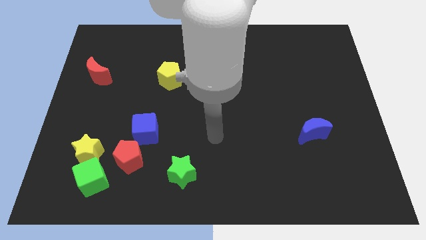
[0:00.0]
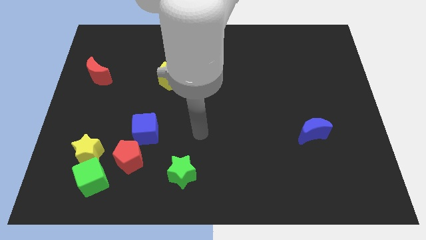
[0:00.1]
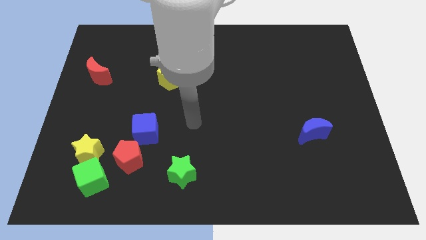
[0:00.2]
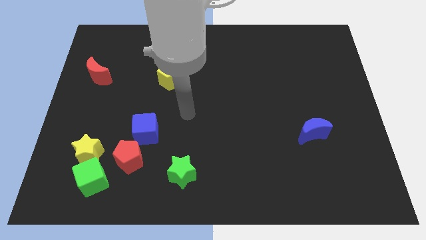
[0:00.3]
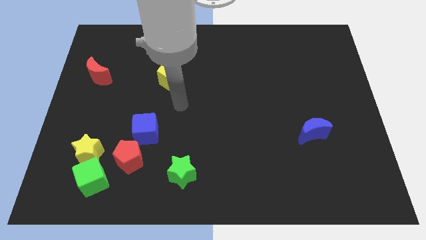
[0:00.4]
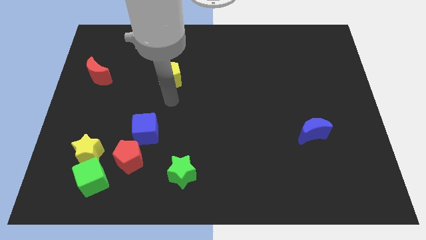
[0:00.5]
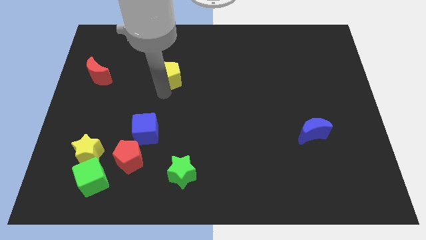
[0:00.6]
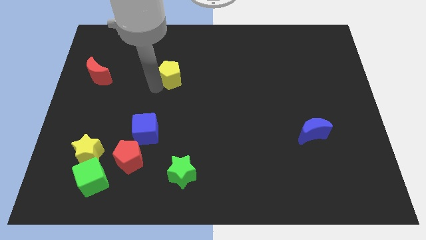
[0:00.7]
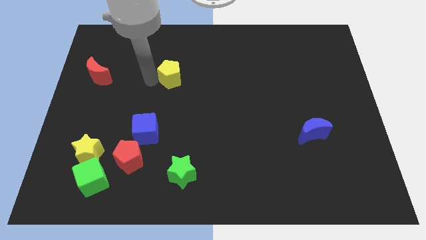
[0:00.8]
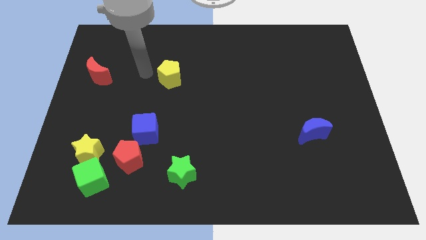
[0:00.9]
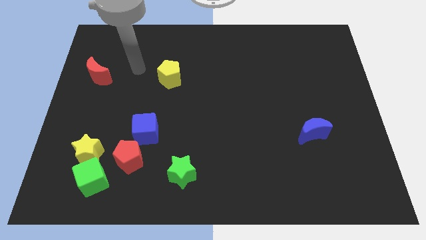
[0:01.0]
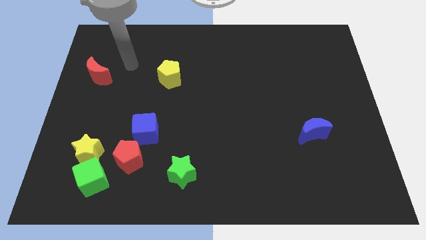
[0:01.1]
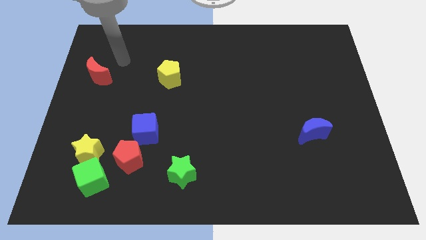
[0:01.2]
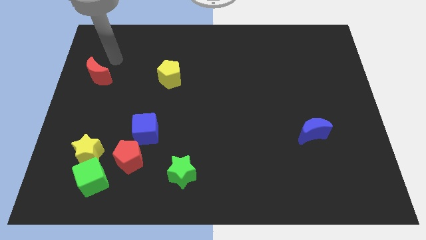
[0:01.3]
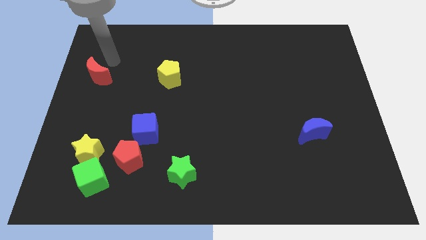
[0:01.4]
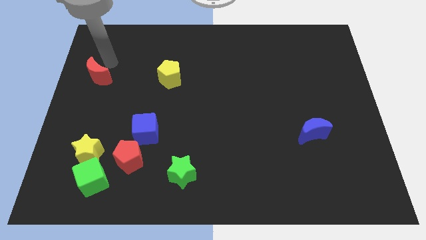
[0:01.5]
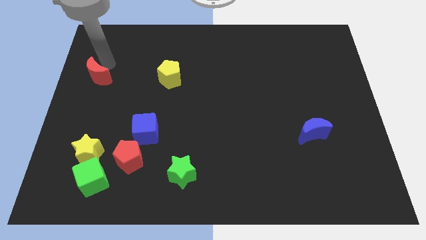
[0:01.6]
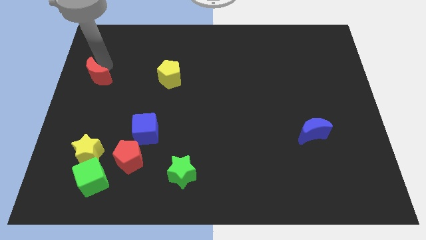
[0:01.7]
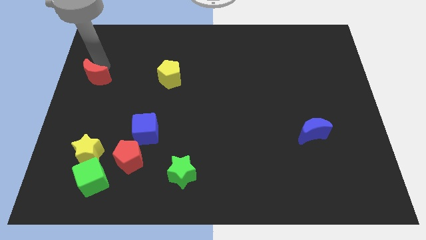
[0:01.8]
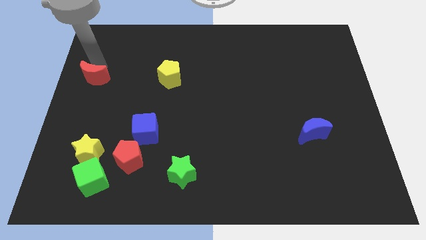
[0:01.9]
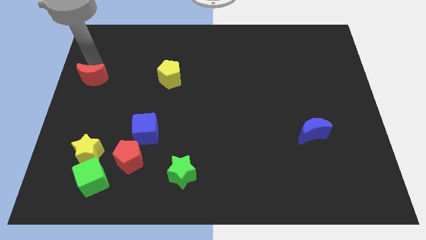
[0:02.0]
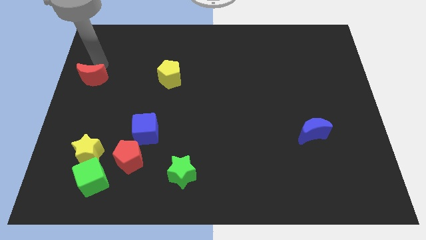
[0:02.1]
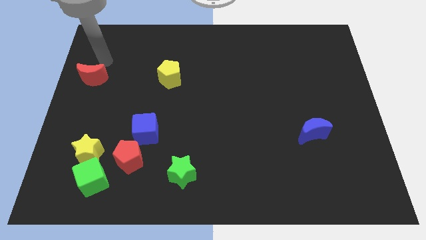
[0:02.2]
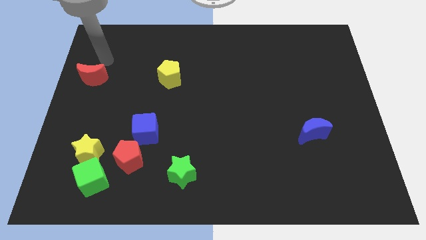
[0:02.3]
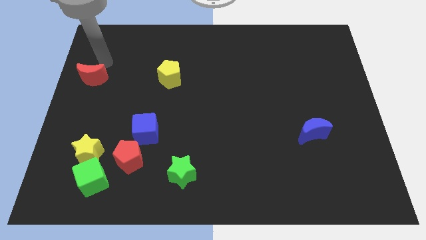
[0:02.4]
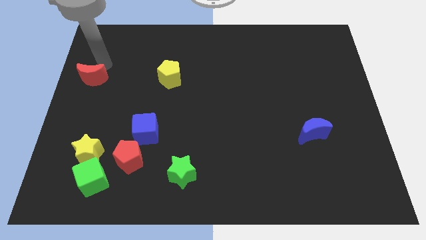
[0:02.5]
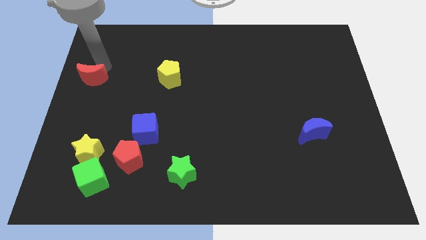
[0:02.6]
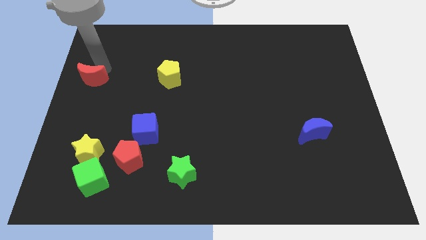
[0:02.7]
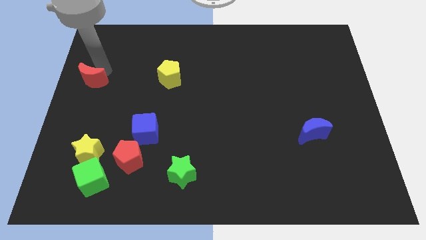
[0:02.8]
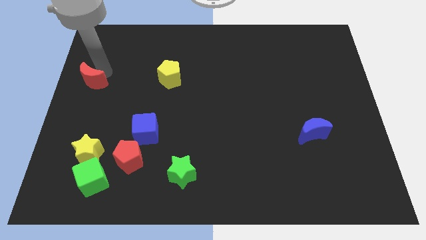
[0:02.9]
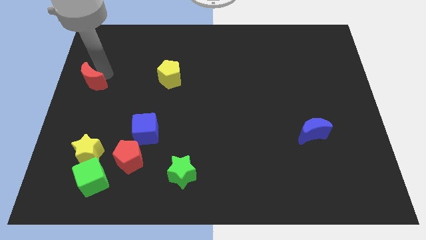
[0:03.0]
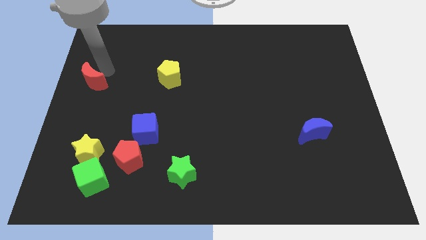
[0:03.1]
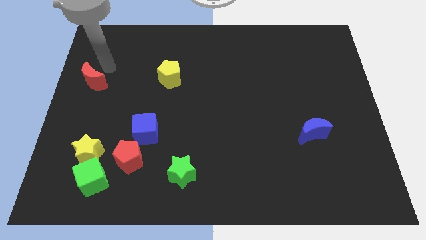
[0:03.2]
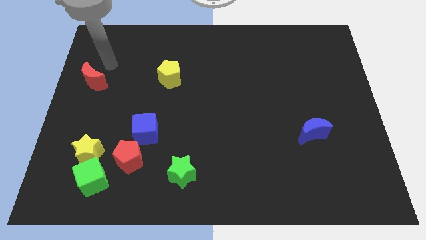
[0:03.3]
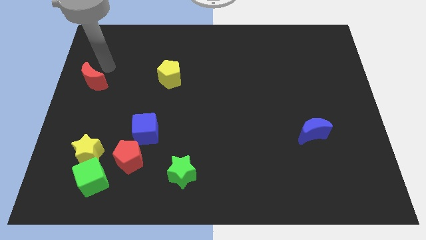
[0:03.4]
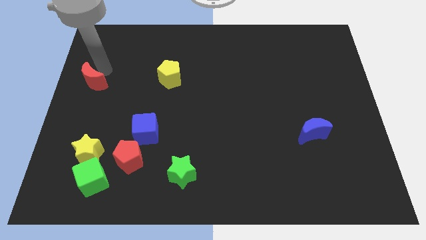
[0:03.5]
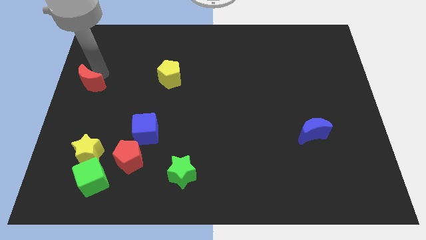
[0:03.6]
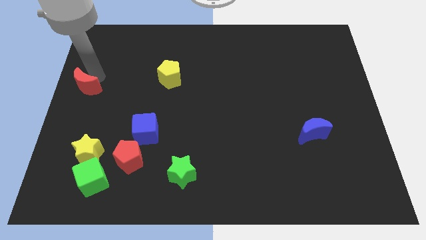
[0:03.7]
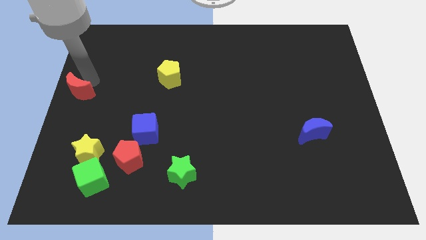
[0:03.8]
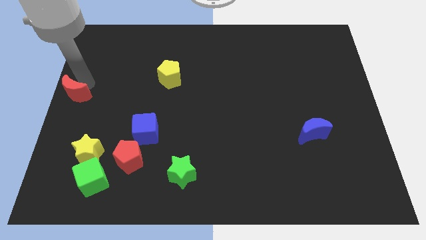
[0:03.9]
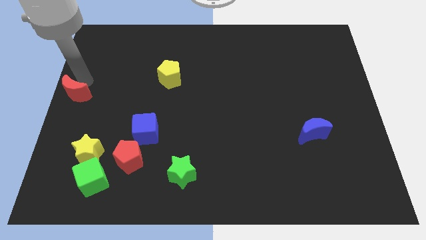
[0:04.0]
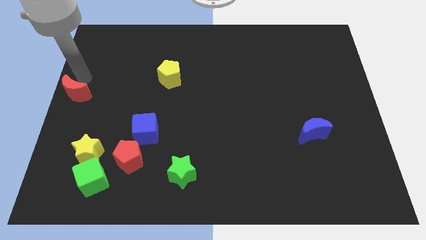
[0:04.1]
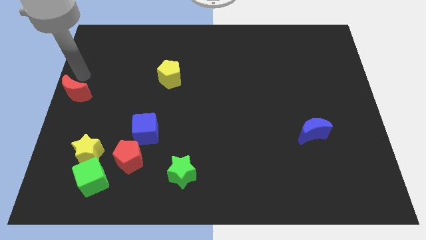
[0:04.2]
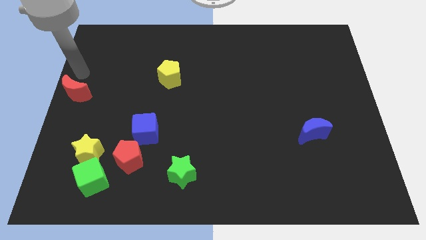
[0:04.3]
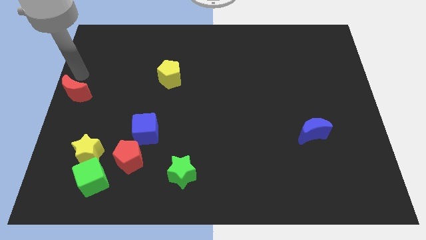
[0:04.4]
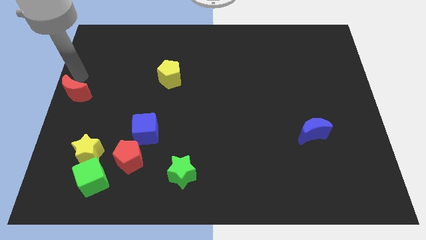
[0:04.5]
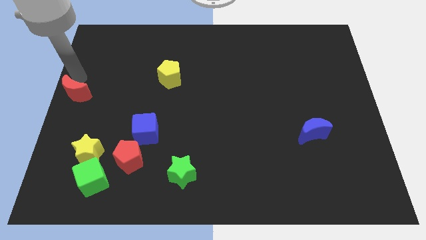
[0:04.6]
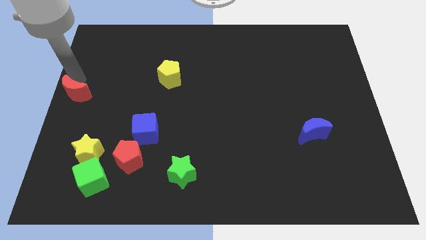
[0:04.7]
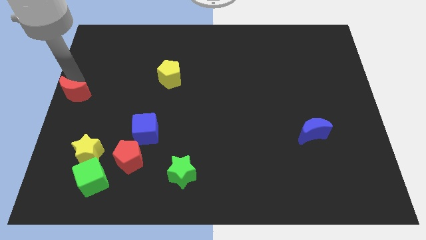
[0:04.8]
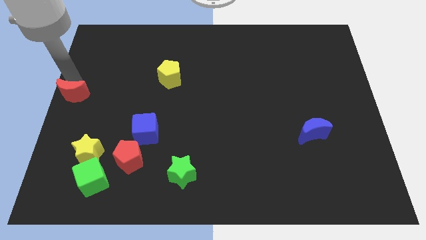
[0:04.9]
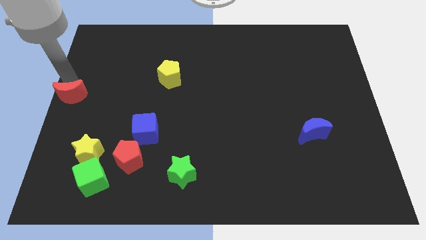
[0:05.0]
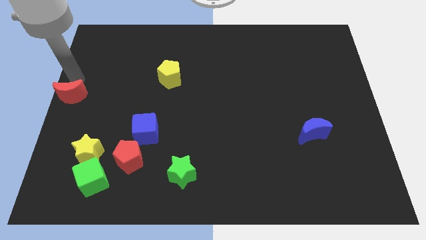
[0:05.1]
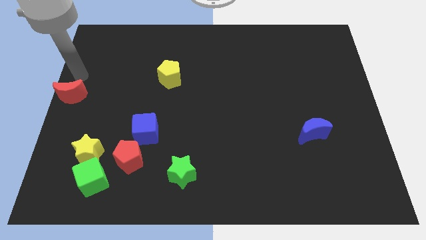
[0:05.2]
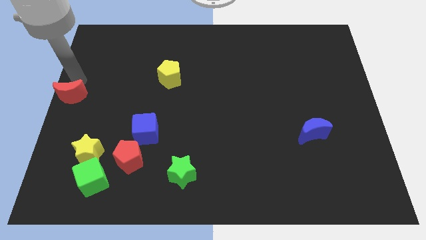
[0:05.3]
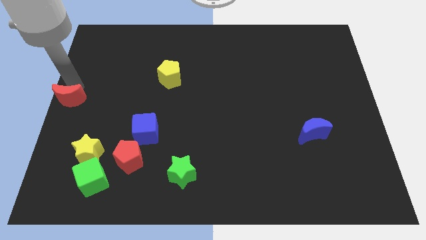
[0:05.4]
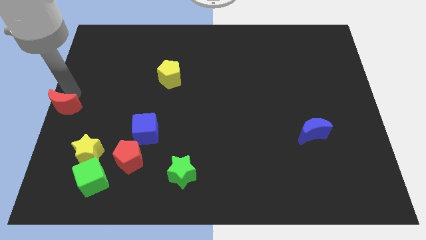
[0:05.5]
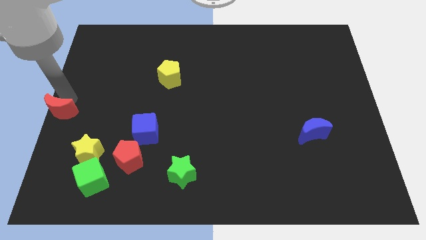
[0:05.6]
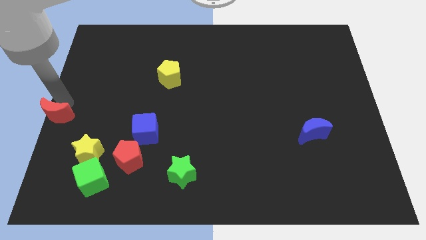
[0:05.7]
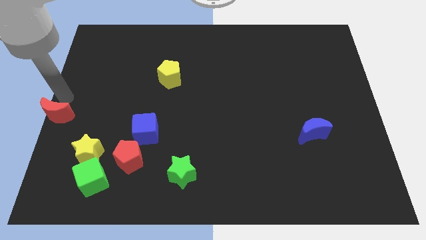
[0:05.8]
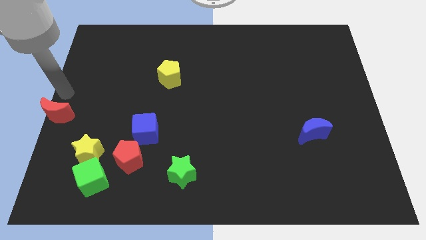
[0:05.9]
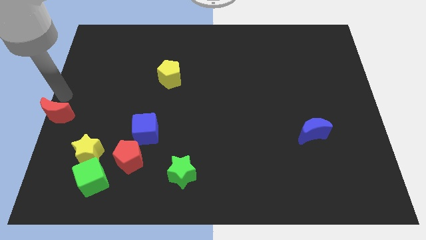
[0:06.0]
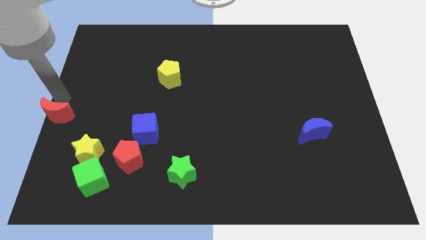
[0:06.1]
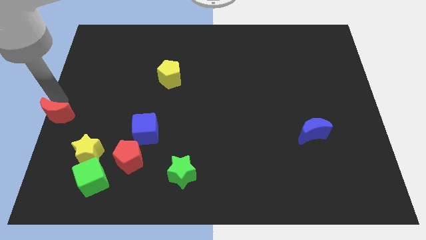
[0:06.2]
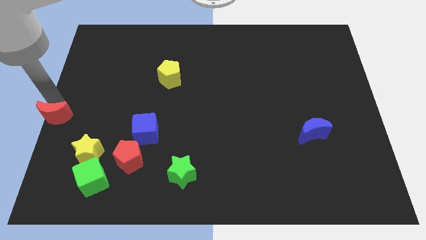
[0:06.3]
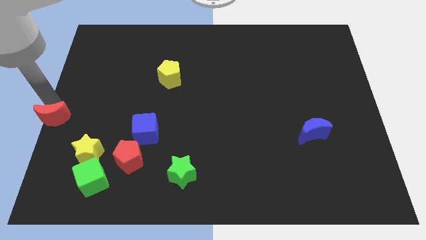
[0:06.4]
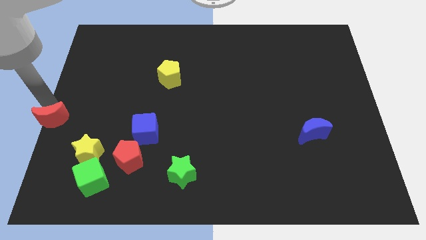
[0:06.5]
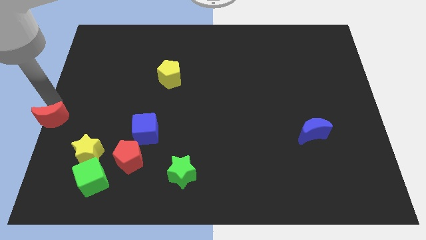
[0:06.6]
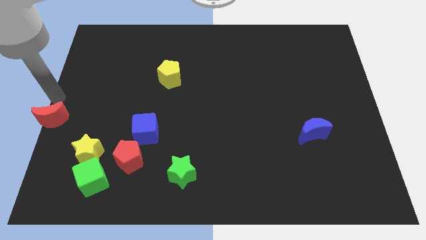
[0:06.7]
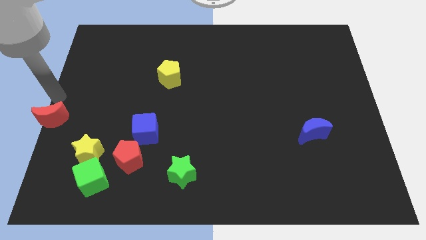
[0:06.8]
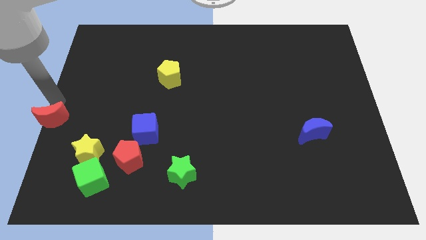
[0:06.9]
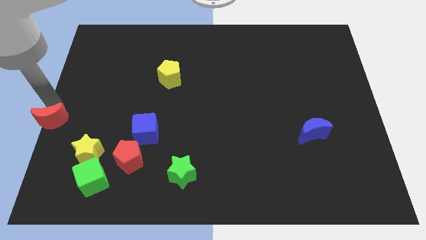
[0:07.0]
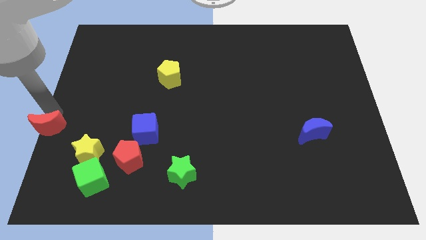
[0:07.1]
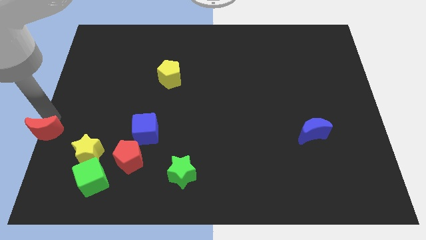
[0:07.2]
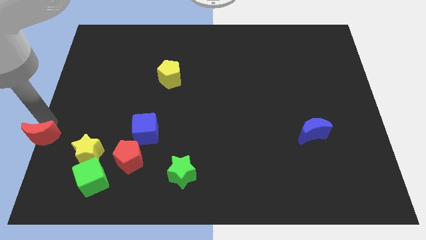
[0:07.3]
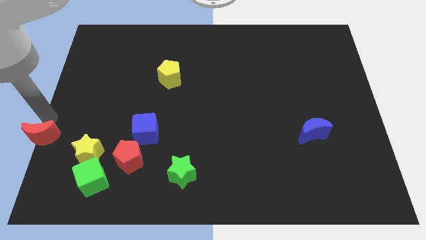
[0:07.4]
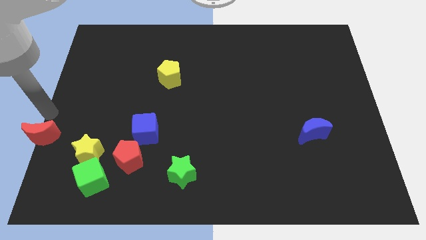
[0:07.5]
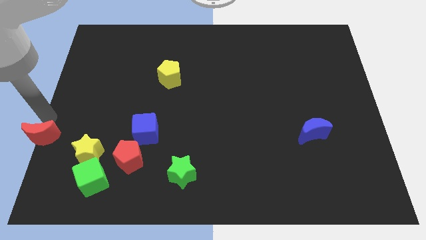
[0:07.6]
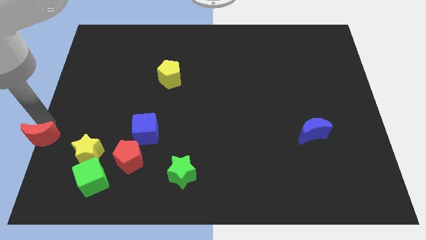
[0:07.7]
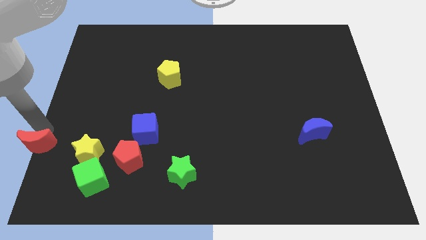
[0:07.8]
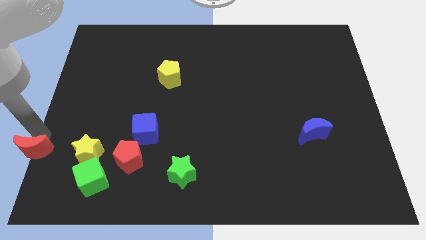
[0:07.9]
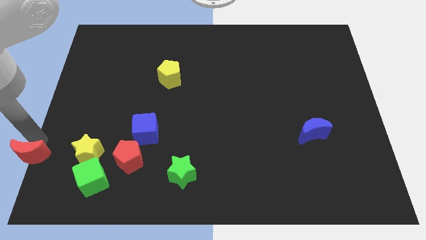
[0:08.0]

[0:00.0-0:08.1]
push the red moon to the bottom left corner
